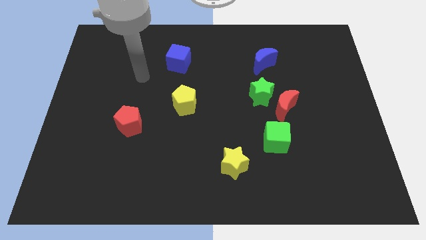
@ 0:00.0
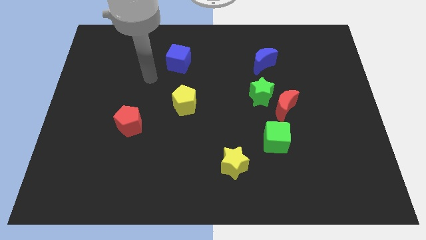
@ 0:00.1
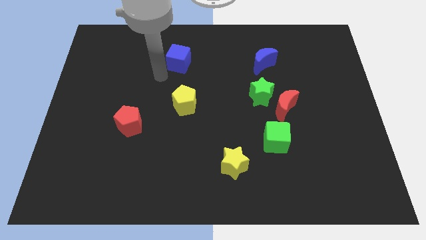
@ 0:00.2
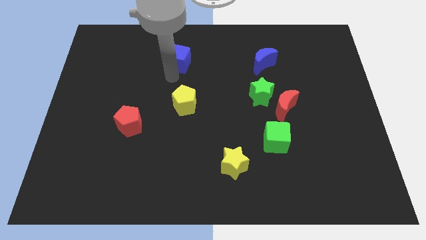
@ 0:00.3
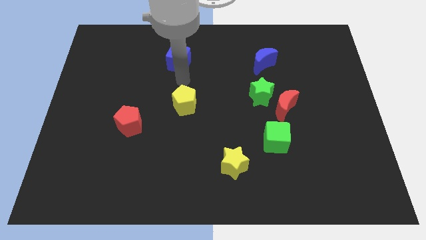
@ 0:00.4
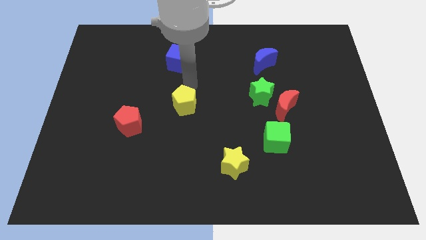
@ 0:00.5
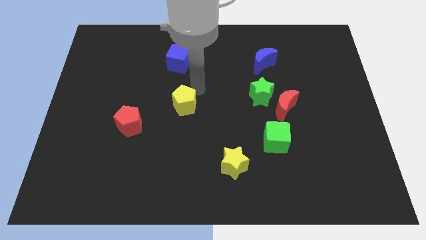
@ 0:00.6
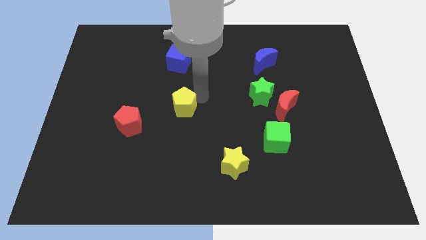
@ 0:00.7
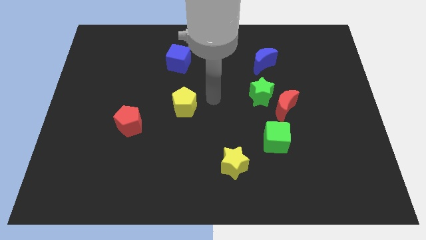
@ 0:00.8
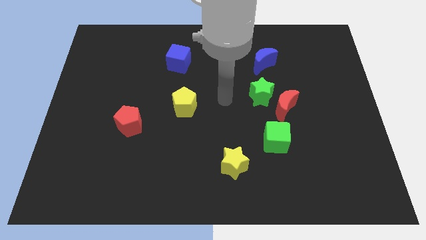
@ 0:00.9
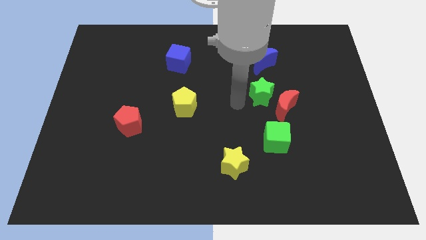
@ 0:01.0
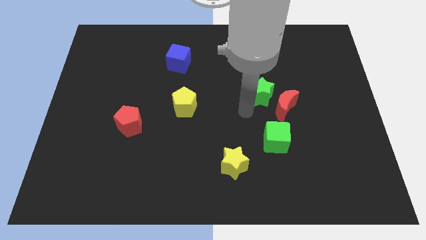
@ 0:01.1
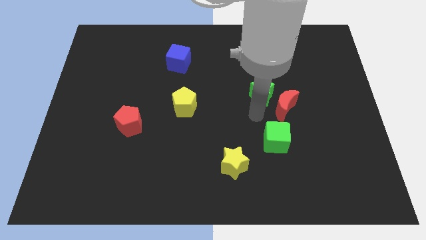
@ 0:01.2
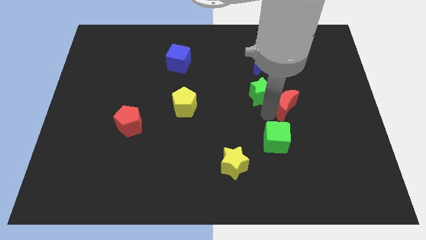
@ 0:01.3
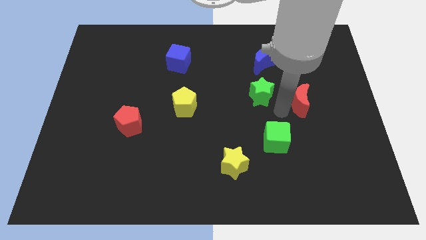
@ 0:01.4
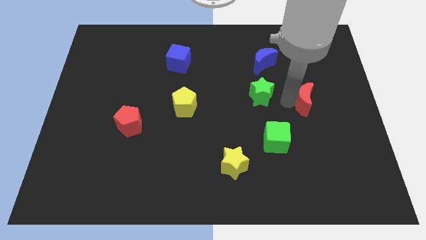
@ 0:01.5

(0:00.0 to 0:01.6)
pull the green star apart from the red moon

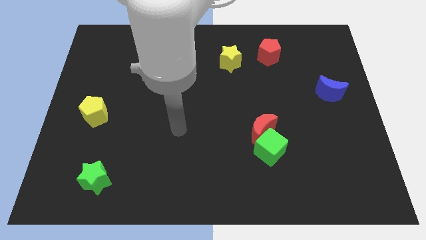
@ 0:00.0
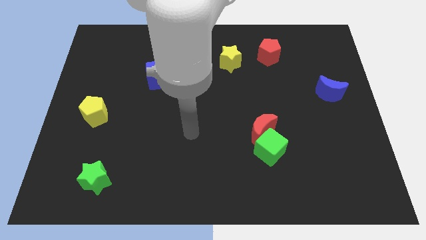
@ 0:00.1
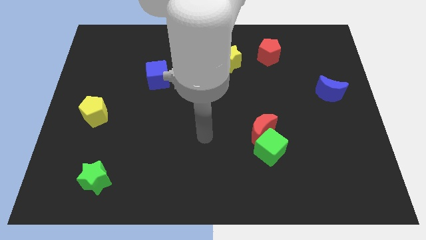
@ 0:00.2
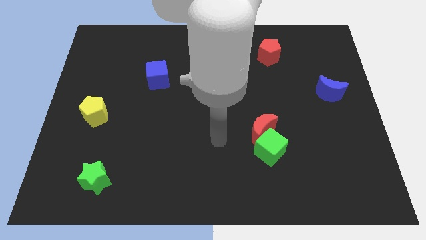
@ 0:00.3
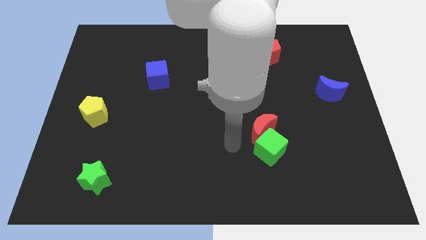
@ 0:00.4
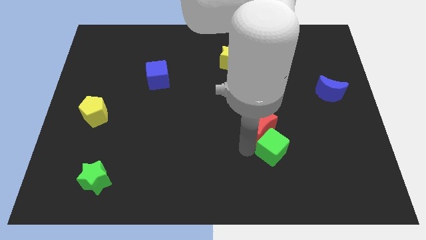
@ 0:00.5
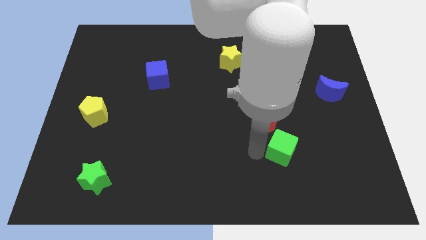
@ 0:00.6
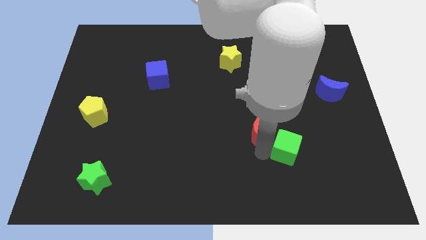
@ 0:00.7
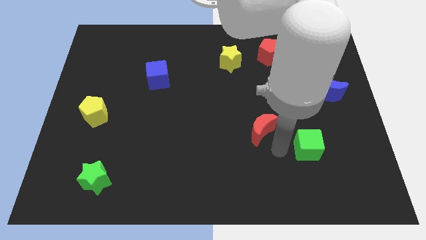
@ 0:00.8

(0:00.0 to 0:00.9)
separate the red moon from the green cube

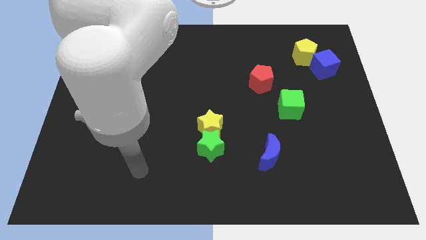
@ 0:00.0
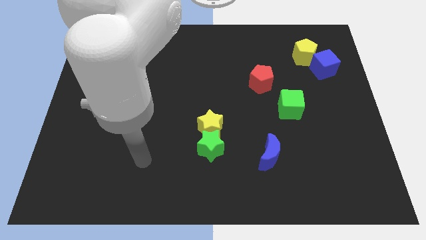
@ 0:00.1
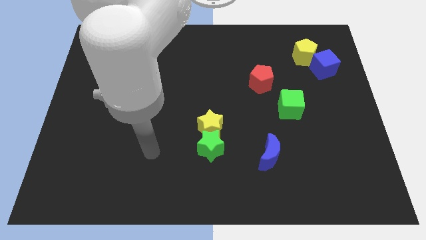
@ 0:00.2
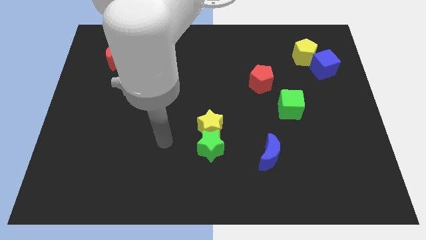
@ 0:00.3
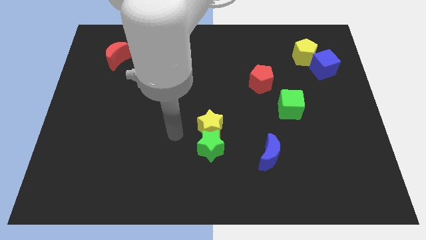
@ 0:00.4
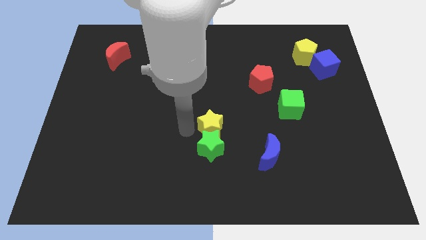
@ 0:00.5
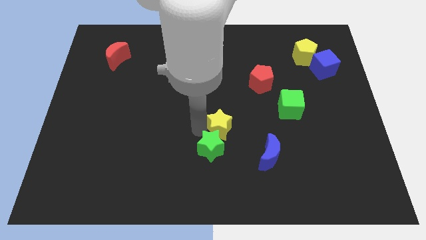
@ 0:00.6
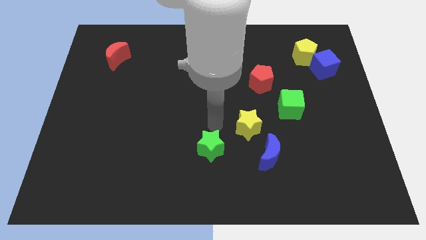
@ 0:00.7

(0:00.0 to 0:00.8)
move the green star away from the yellow star

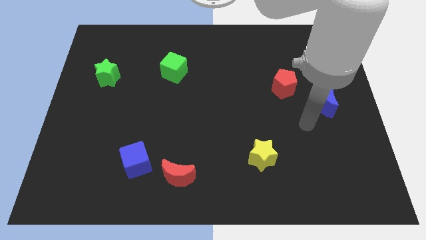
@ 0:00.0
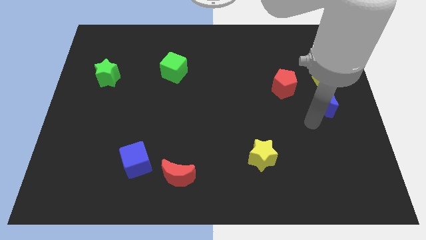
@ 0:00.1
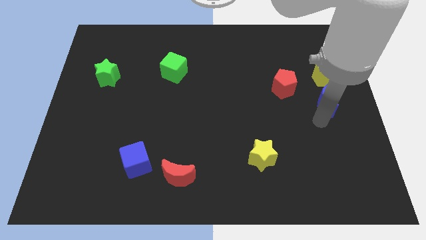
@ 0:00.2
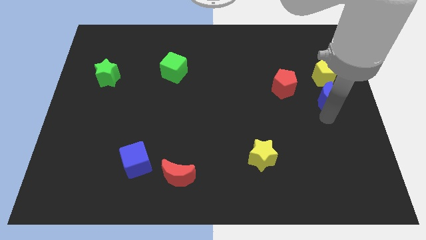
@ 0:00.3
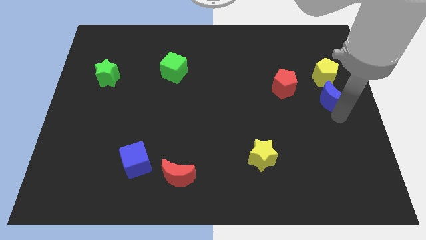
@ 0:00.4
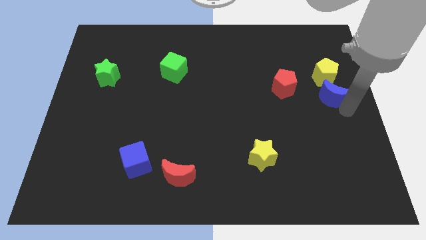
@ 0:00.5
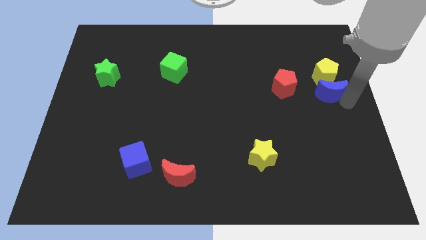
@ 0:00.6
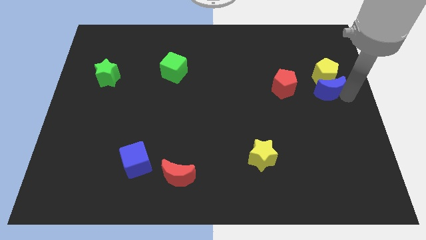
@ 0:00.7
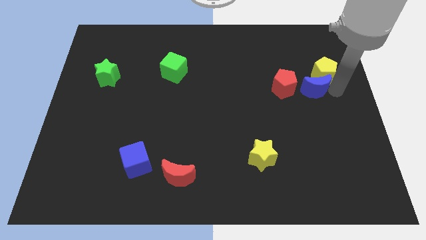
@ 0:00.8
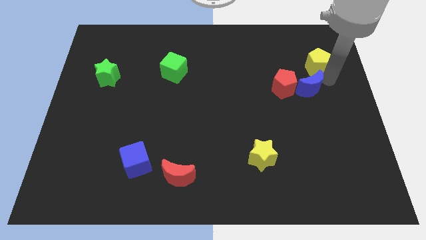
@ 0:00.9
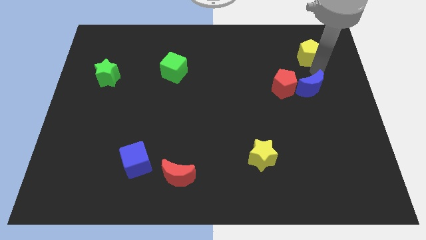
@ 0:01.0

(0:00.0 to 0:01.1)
move the blue moon away from the yellow pentagon

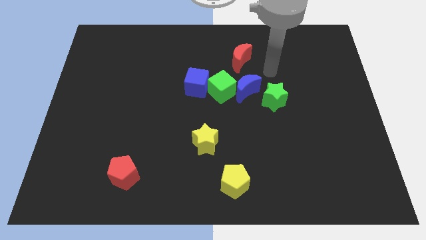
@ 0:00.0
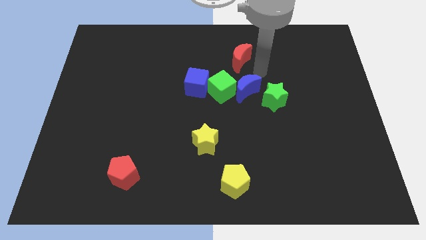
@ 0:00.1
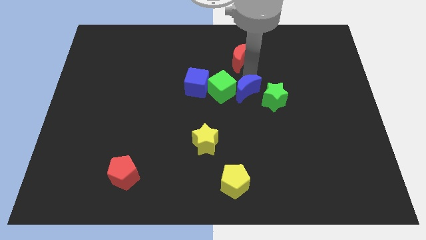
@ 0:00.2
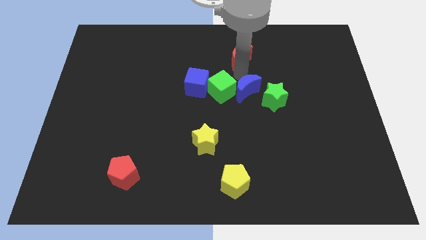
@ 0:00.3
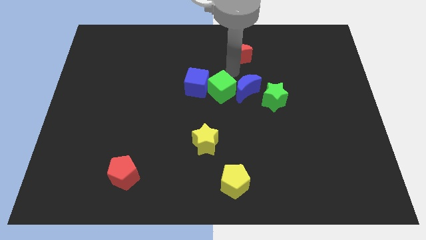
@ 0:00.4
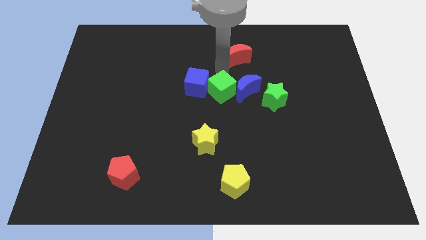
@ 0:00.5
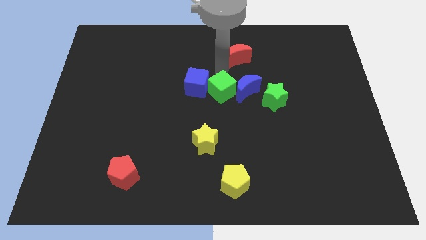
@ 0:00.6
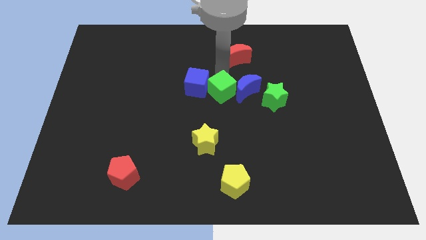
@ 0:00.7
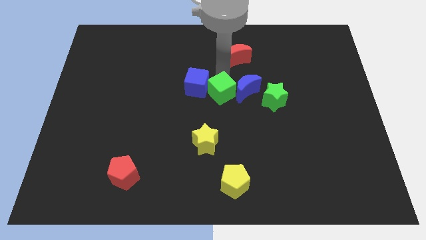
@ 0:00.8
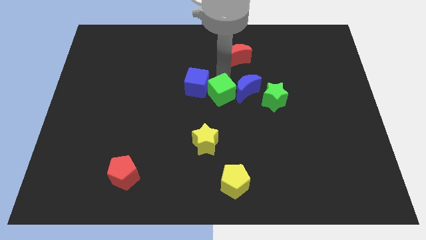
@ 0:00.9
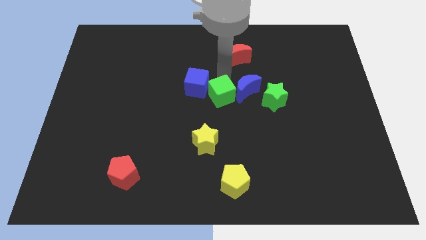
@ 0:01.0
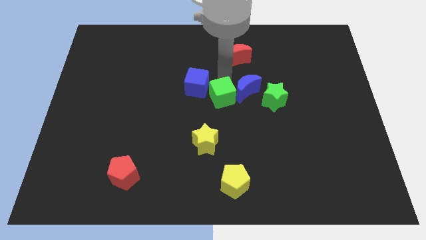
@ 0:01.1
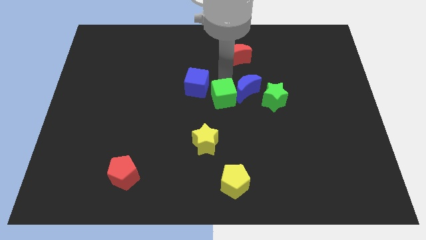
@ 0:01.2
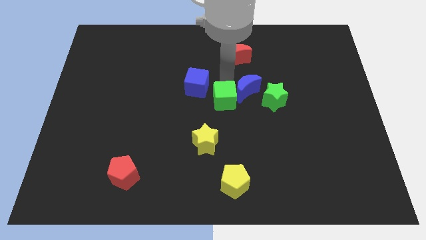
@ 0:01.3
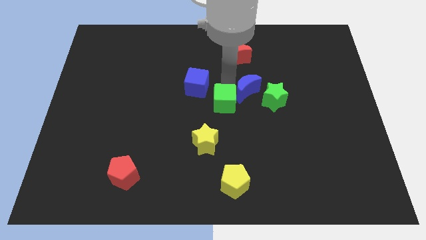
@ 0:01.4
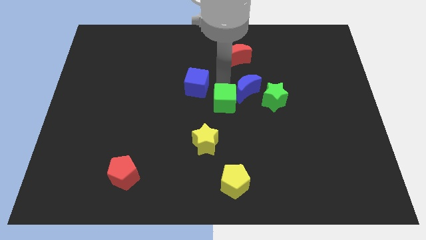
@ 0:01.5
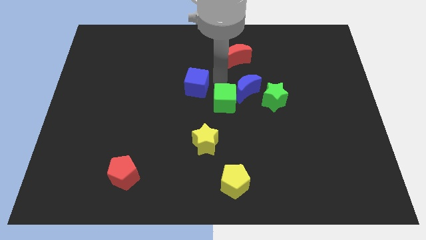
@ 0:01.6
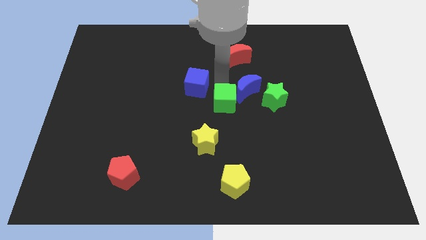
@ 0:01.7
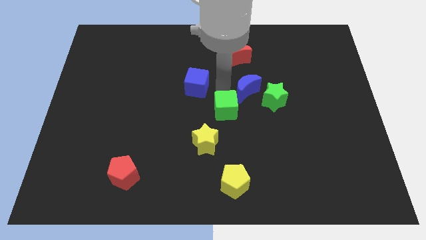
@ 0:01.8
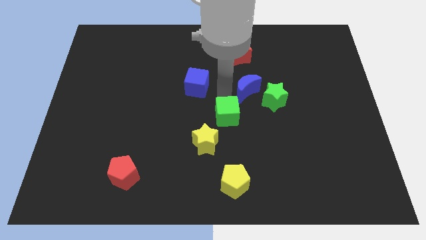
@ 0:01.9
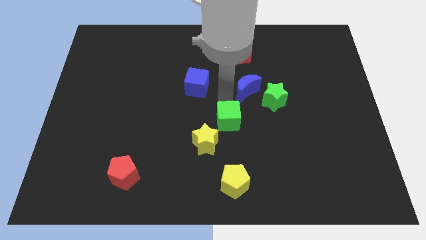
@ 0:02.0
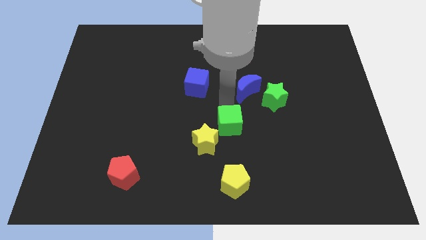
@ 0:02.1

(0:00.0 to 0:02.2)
move the green cube away from the blue moon and blue cube

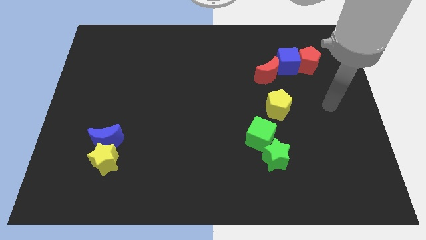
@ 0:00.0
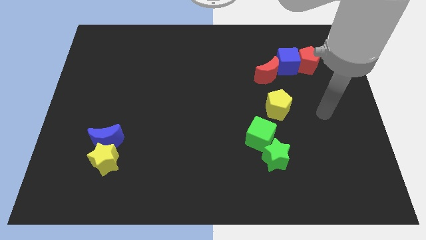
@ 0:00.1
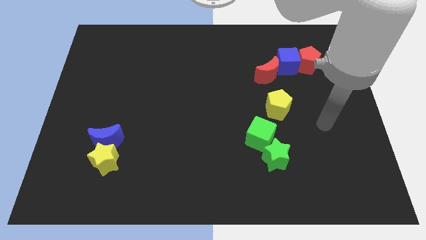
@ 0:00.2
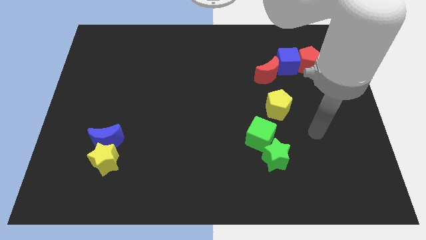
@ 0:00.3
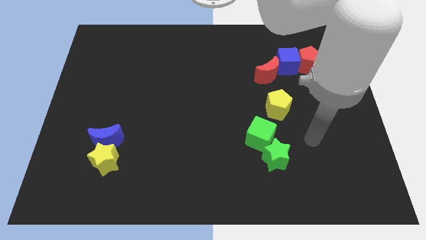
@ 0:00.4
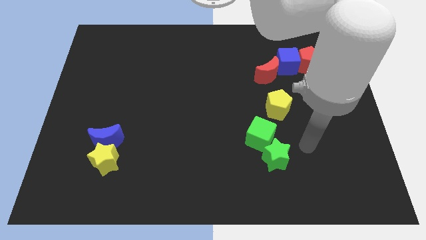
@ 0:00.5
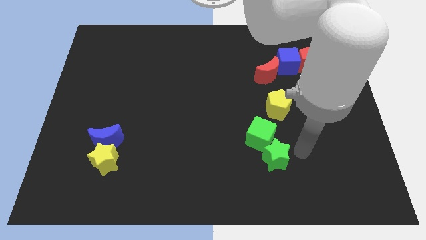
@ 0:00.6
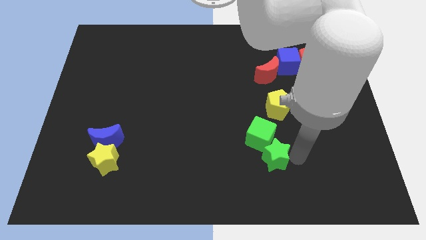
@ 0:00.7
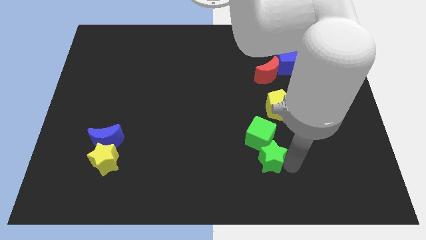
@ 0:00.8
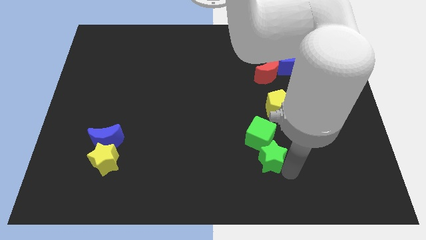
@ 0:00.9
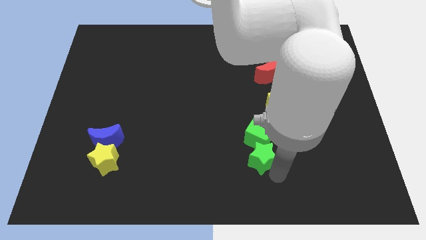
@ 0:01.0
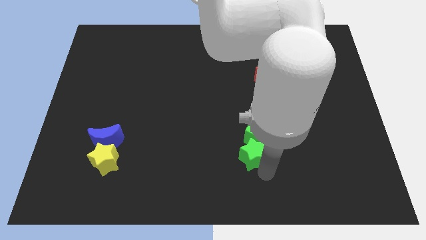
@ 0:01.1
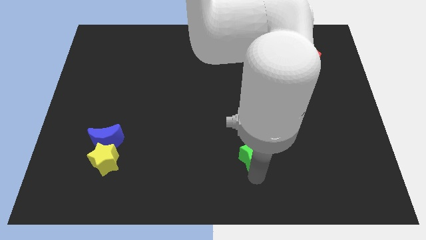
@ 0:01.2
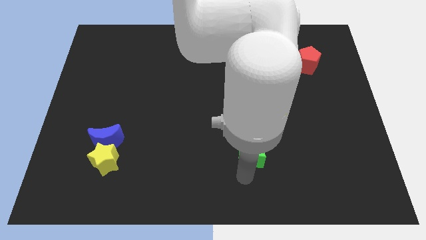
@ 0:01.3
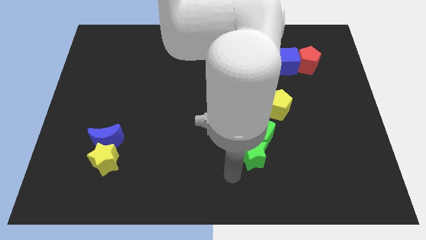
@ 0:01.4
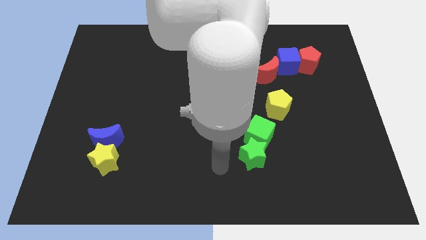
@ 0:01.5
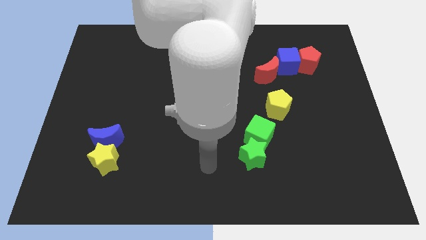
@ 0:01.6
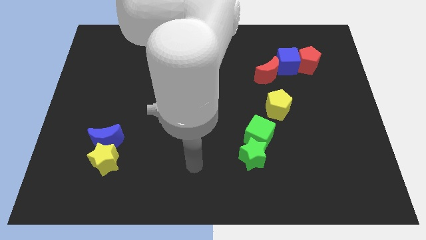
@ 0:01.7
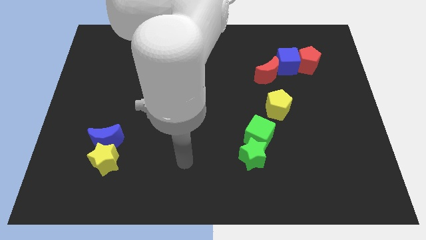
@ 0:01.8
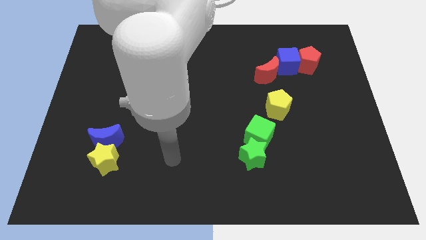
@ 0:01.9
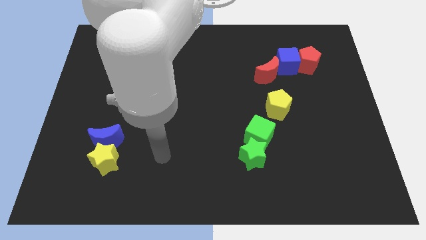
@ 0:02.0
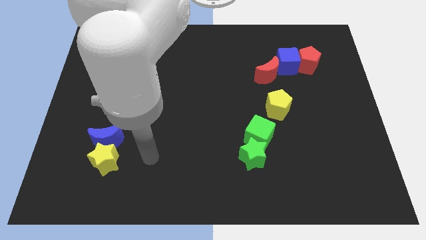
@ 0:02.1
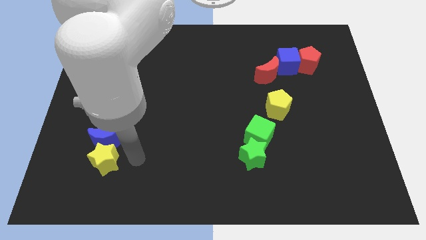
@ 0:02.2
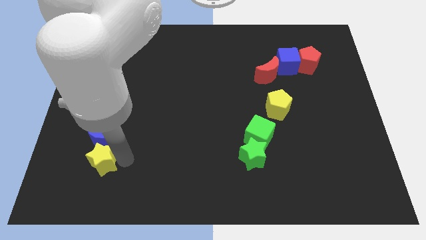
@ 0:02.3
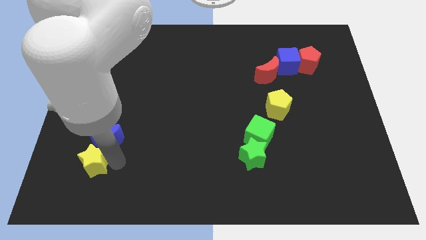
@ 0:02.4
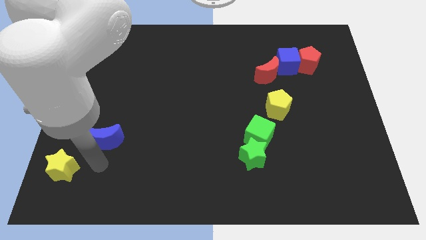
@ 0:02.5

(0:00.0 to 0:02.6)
move the blue moon away from the yellow star
